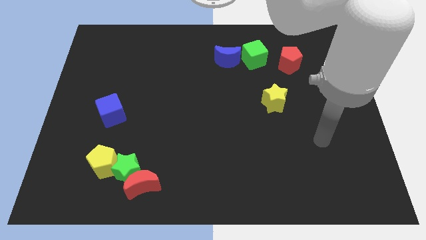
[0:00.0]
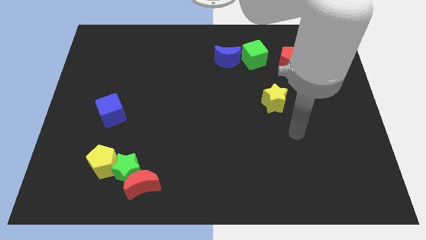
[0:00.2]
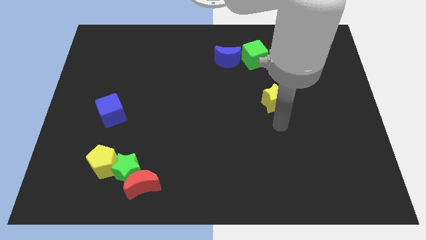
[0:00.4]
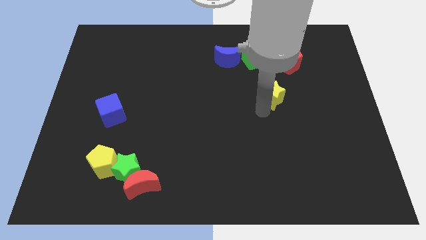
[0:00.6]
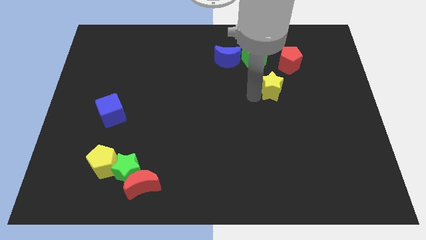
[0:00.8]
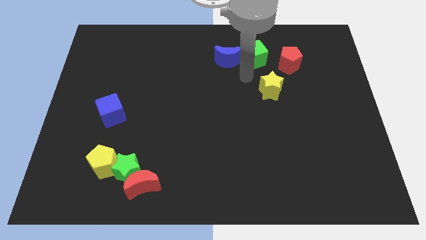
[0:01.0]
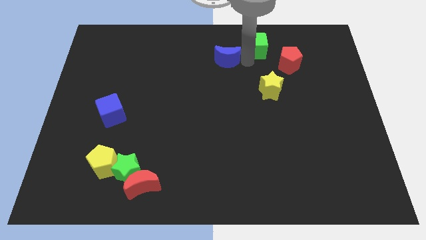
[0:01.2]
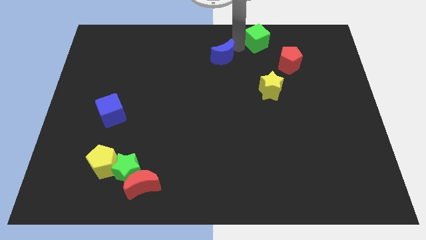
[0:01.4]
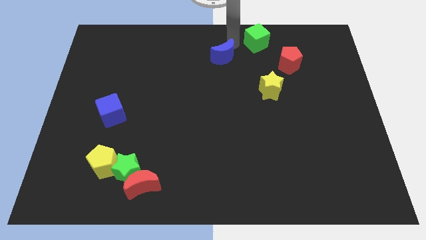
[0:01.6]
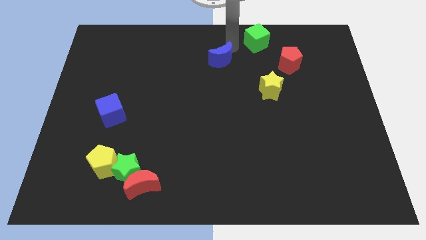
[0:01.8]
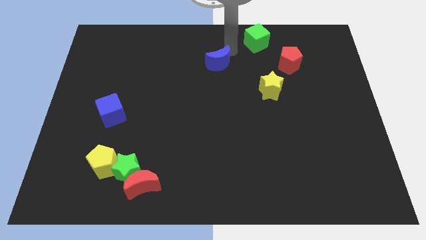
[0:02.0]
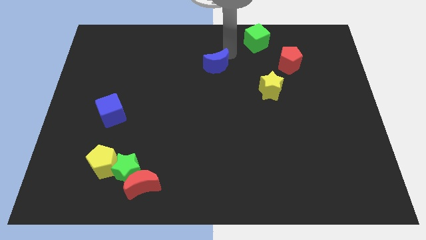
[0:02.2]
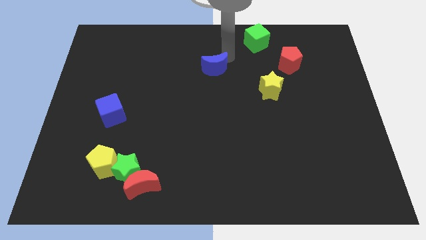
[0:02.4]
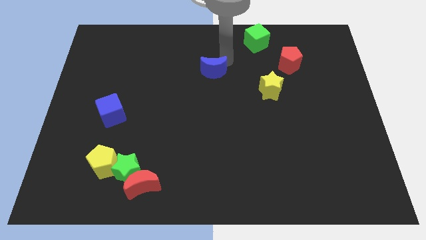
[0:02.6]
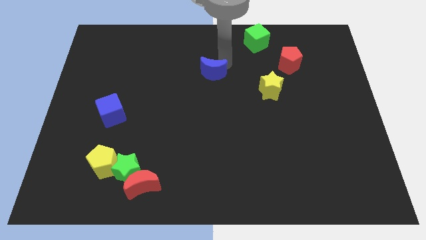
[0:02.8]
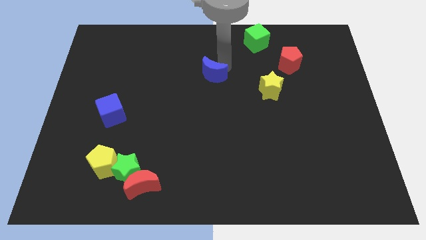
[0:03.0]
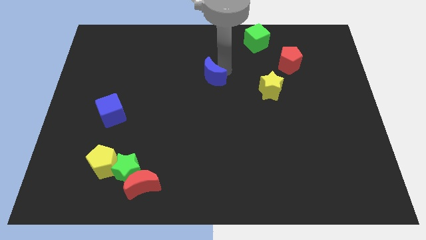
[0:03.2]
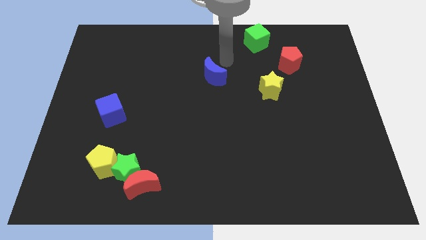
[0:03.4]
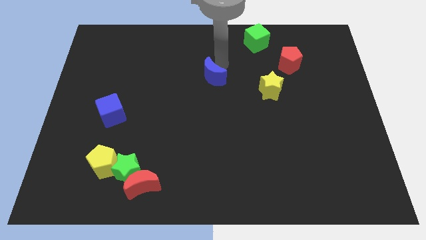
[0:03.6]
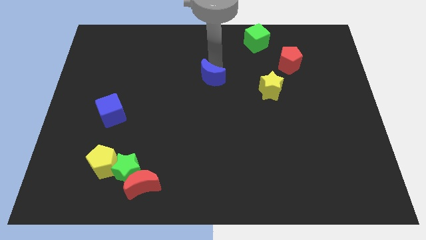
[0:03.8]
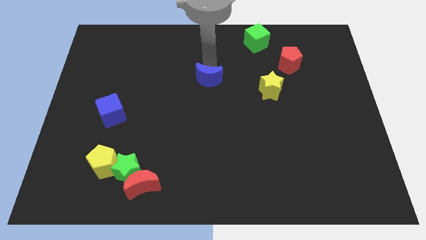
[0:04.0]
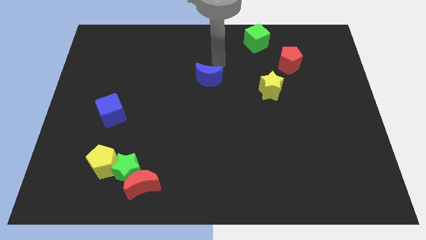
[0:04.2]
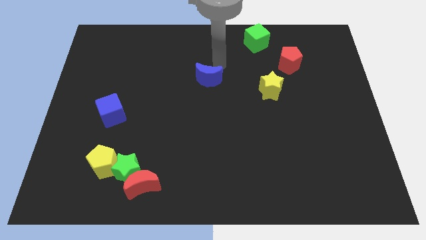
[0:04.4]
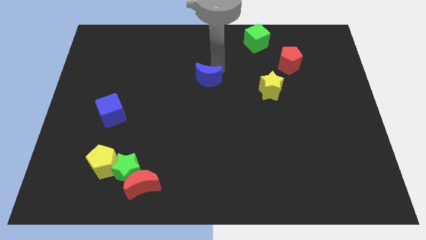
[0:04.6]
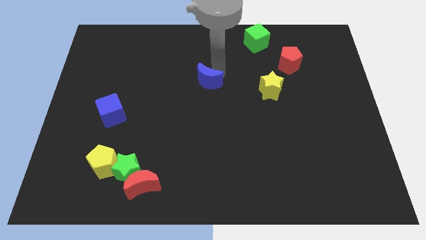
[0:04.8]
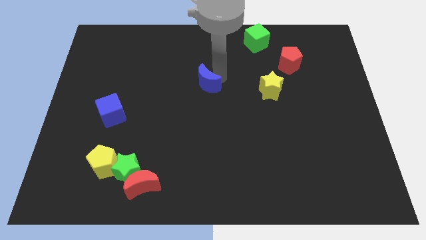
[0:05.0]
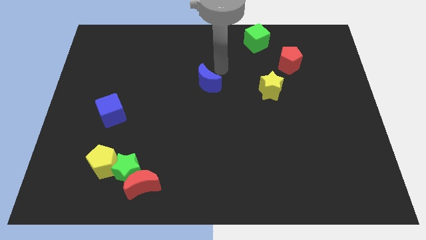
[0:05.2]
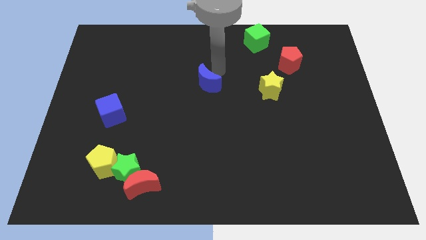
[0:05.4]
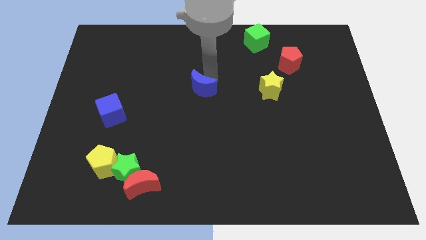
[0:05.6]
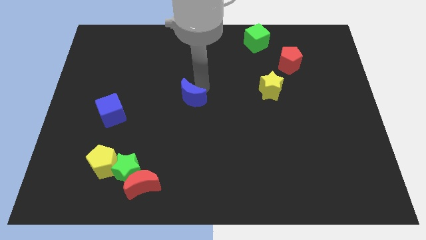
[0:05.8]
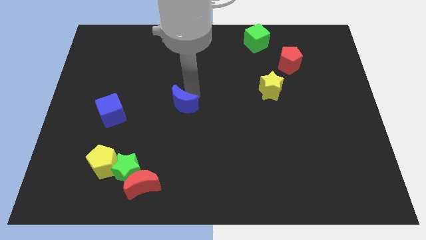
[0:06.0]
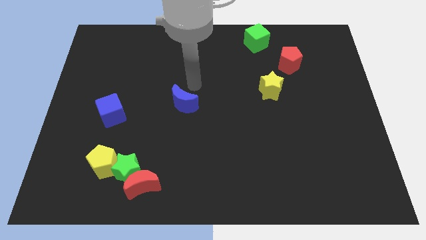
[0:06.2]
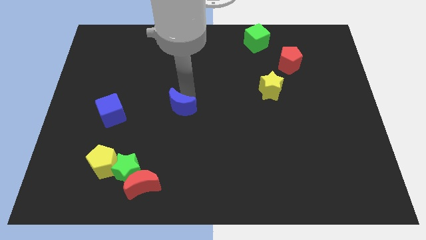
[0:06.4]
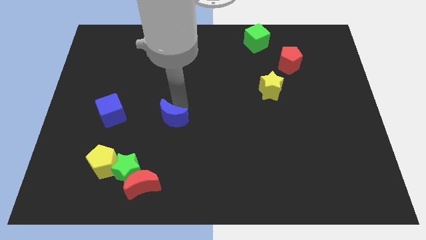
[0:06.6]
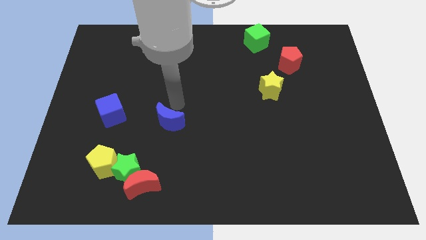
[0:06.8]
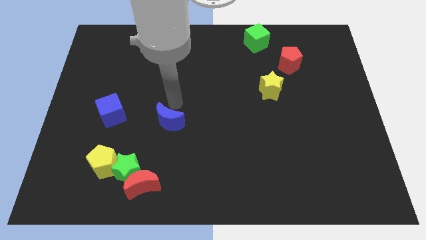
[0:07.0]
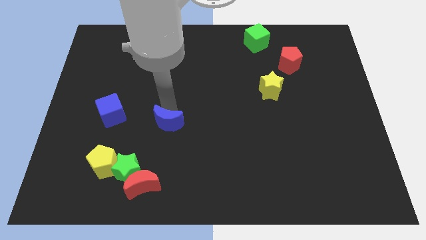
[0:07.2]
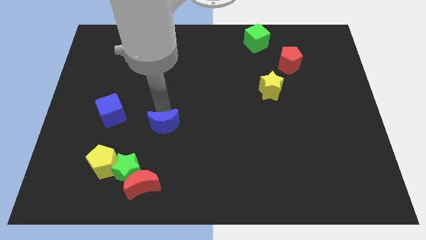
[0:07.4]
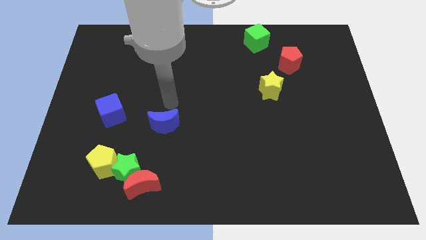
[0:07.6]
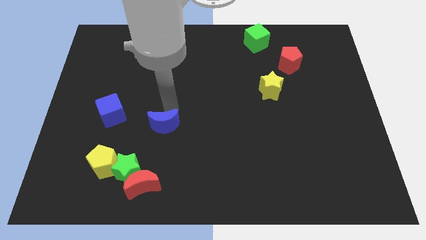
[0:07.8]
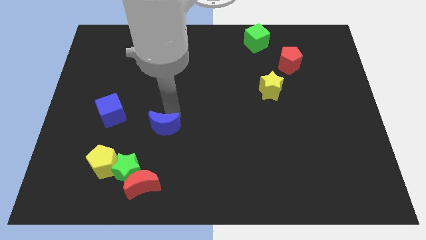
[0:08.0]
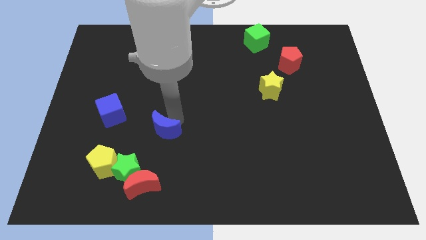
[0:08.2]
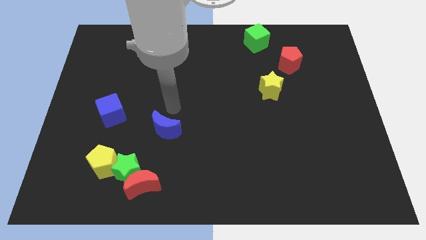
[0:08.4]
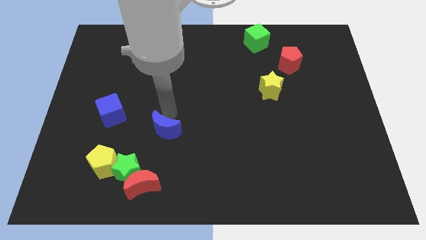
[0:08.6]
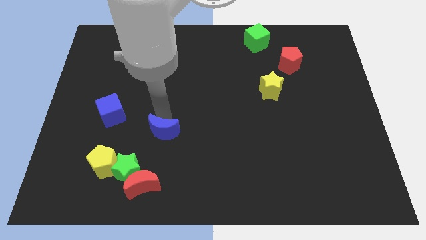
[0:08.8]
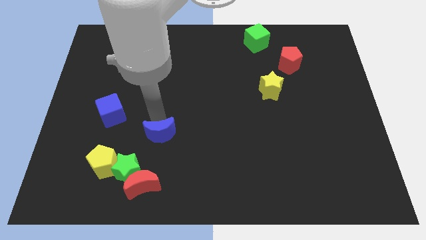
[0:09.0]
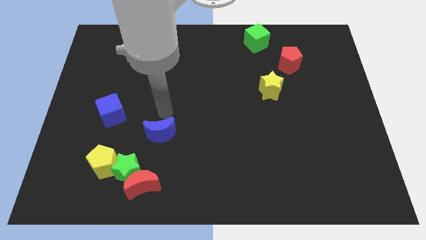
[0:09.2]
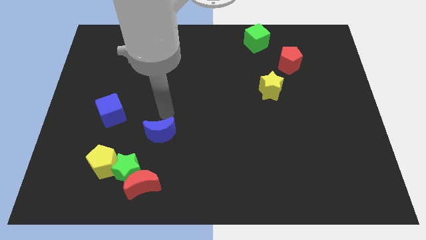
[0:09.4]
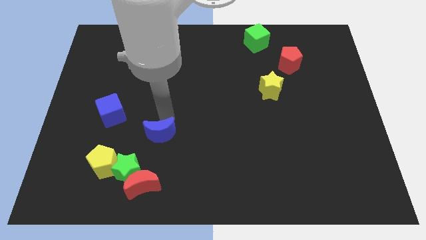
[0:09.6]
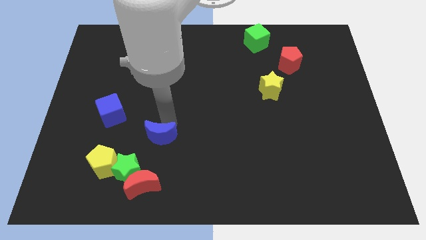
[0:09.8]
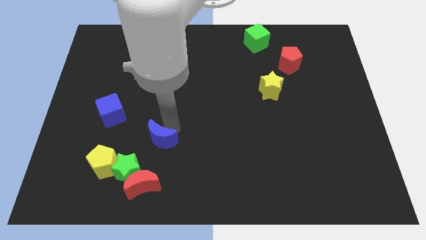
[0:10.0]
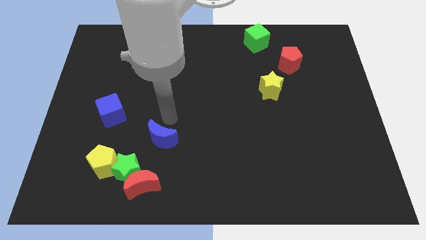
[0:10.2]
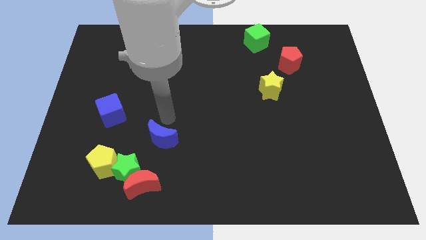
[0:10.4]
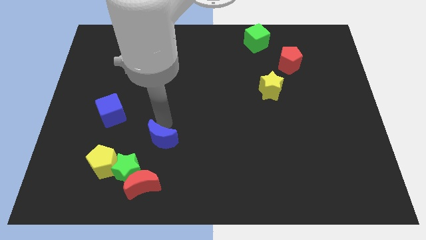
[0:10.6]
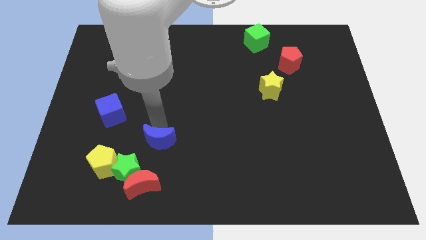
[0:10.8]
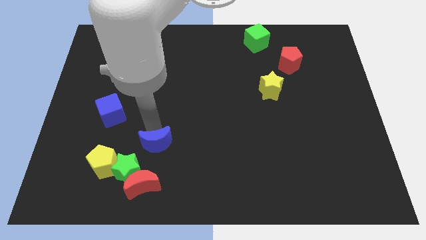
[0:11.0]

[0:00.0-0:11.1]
move the blue moon to the right of the yellow pentagon

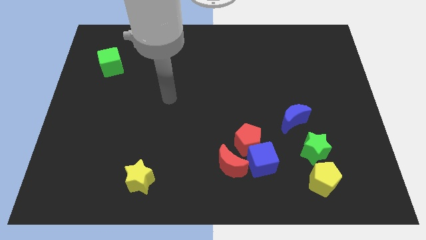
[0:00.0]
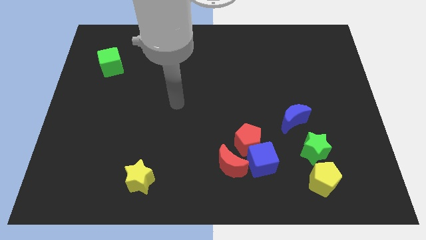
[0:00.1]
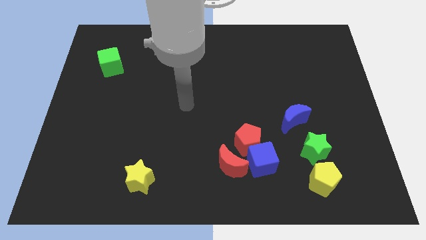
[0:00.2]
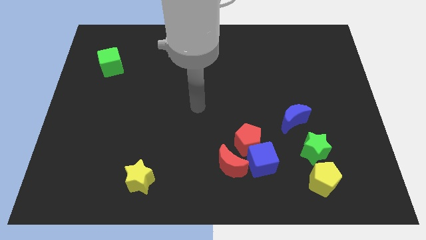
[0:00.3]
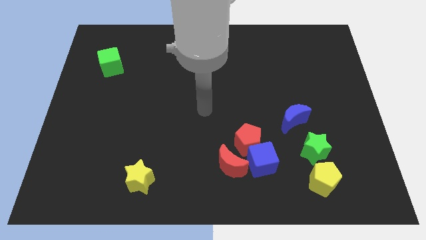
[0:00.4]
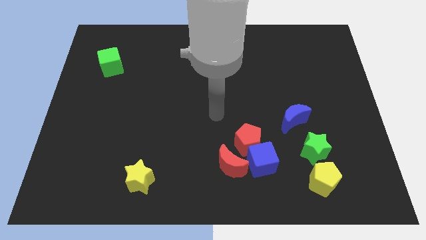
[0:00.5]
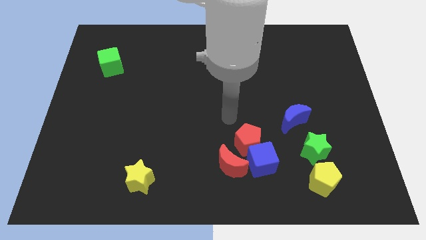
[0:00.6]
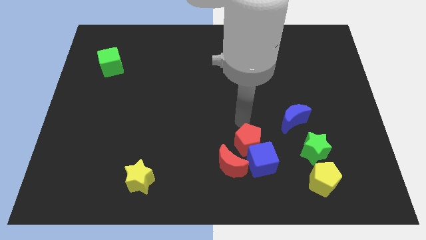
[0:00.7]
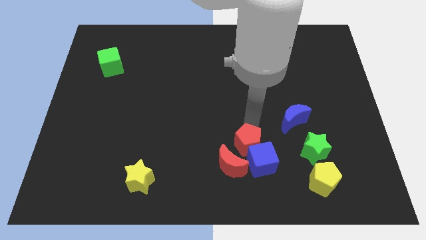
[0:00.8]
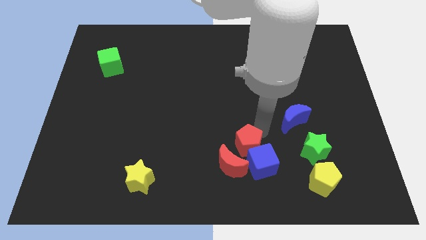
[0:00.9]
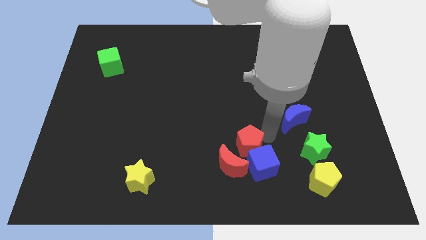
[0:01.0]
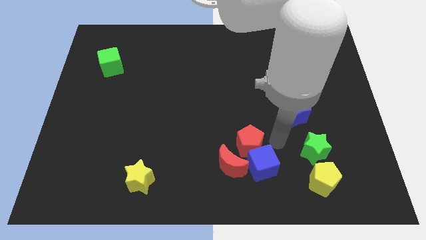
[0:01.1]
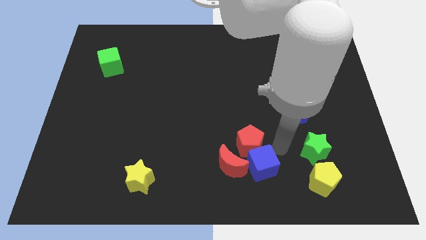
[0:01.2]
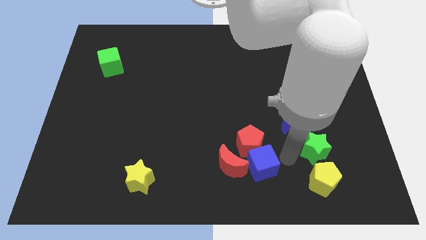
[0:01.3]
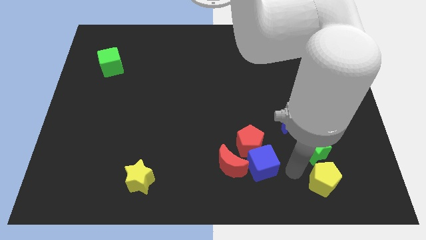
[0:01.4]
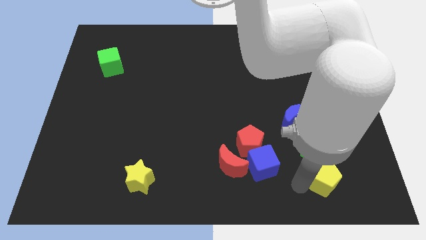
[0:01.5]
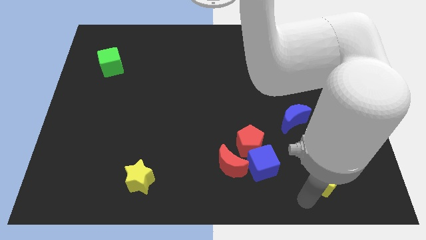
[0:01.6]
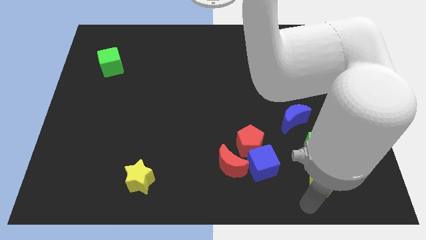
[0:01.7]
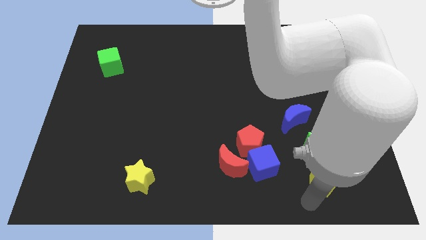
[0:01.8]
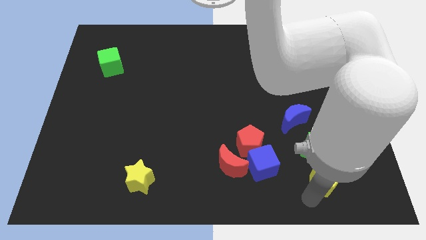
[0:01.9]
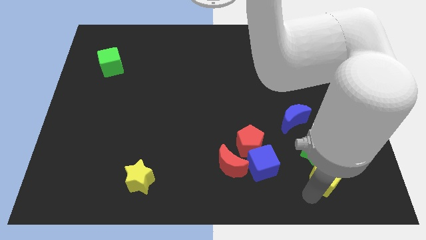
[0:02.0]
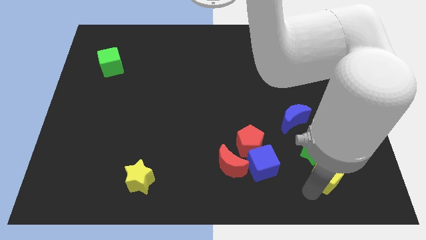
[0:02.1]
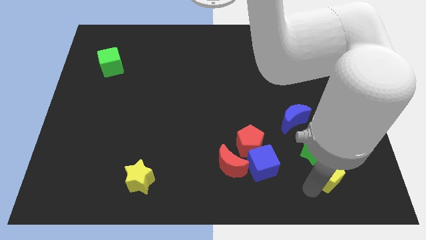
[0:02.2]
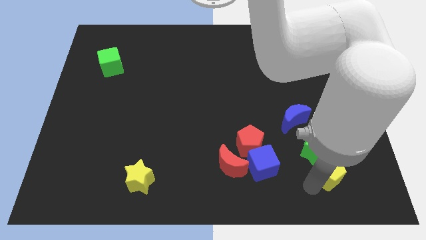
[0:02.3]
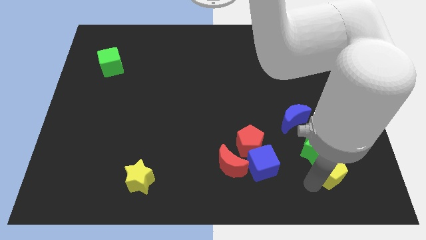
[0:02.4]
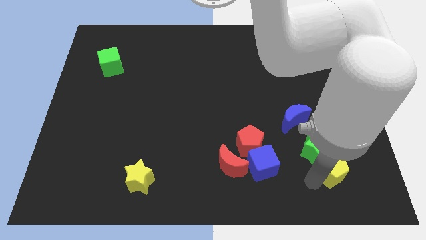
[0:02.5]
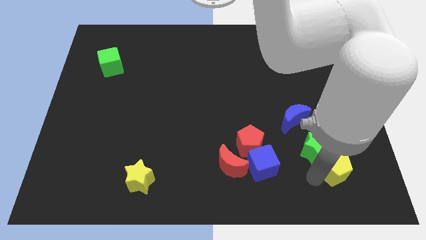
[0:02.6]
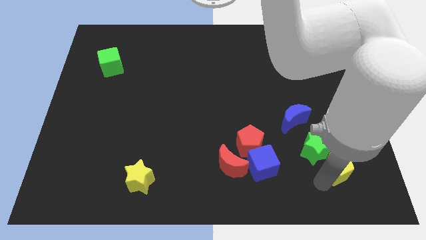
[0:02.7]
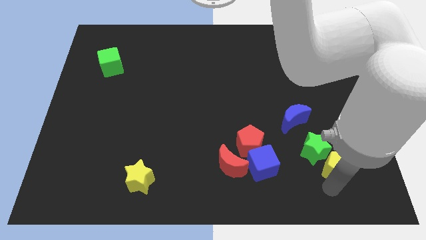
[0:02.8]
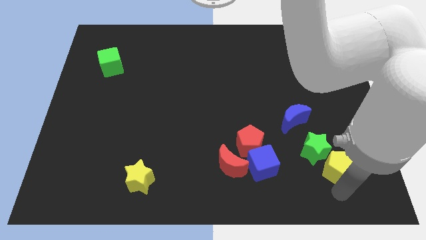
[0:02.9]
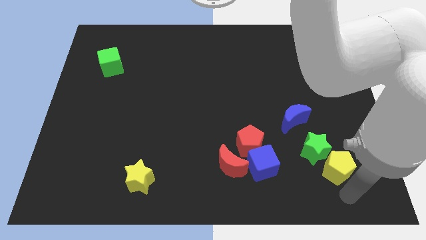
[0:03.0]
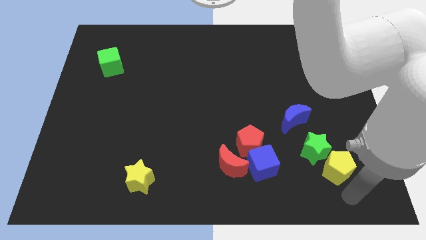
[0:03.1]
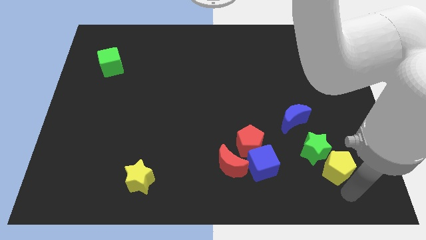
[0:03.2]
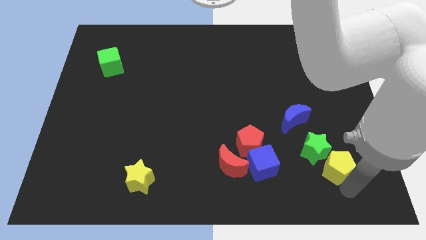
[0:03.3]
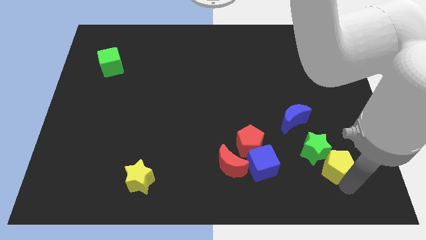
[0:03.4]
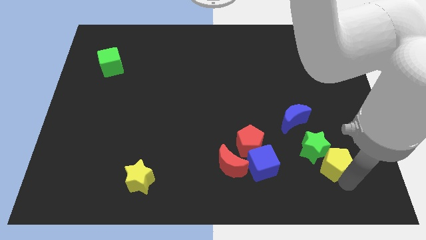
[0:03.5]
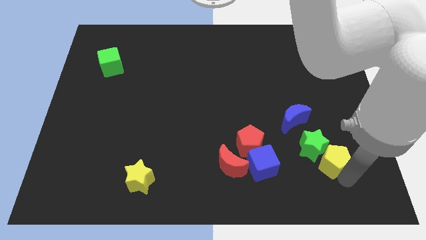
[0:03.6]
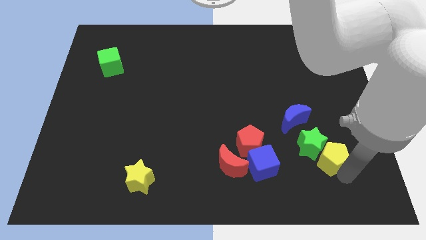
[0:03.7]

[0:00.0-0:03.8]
put the yellow pentagon to the bottom right side of the blue moon
